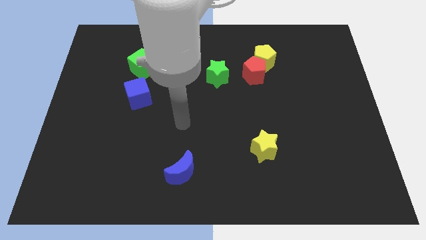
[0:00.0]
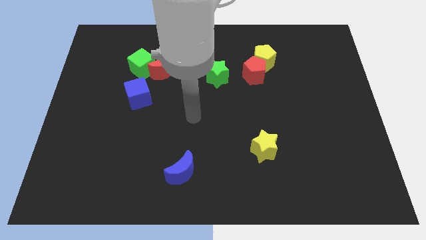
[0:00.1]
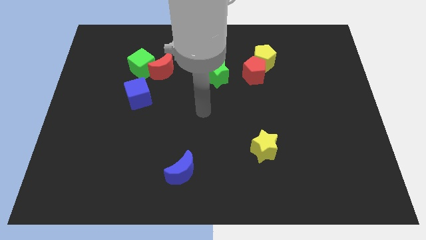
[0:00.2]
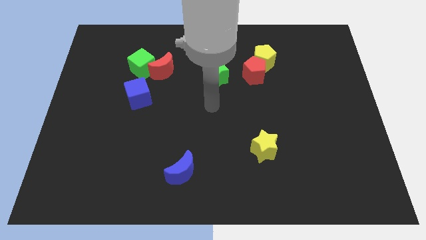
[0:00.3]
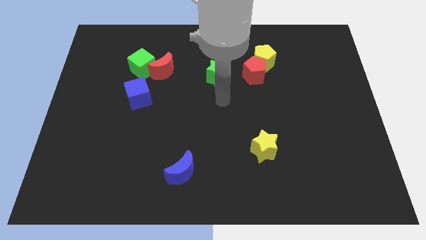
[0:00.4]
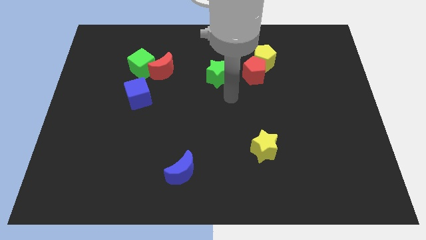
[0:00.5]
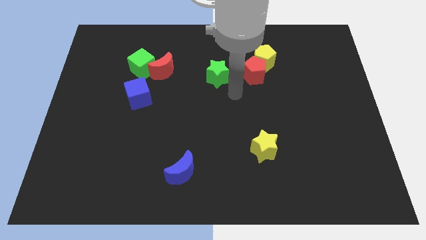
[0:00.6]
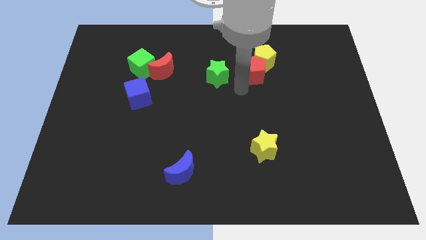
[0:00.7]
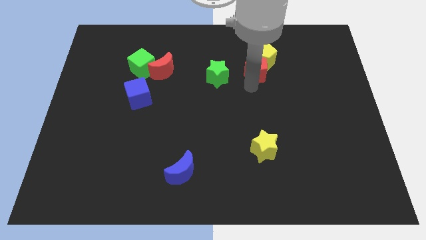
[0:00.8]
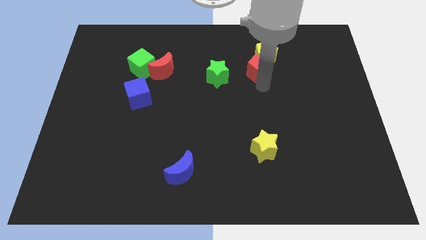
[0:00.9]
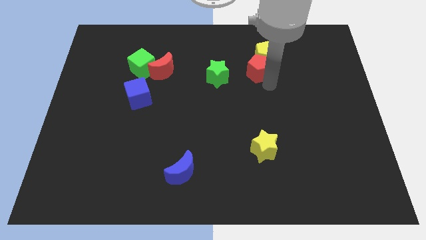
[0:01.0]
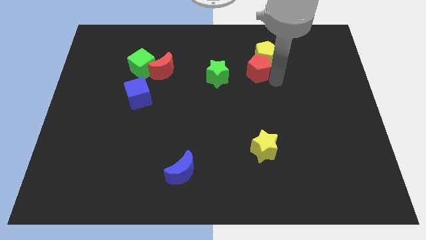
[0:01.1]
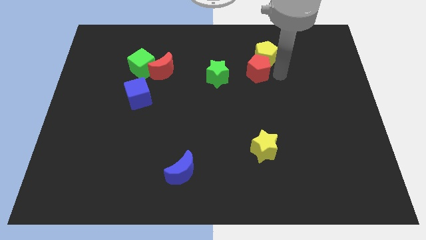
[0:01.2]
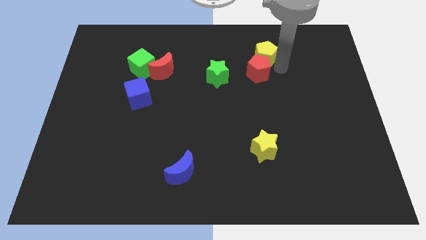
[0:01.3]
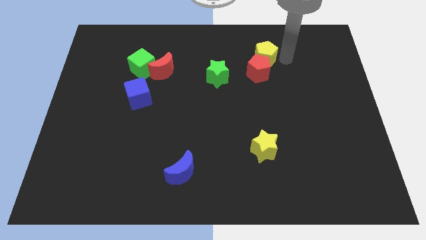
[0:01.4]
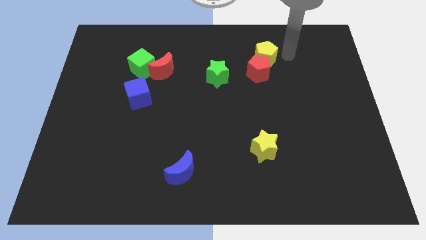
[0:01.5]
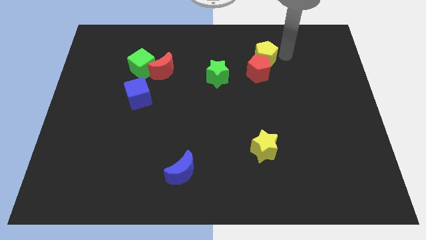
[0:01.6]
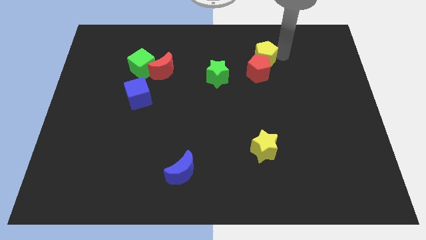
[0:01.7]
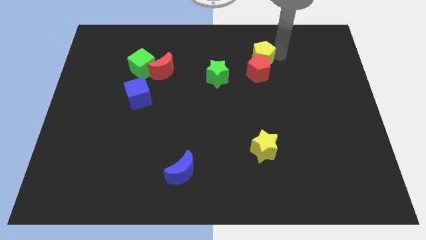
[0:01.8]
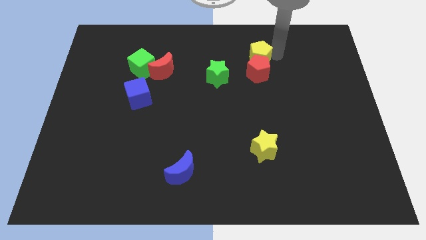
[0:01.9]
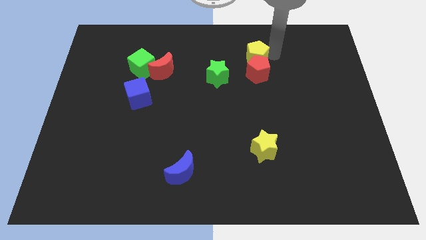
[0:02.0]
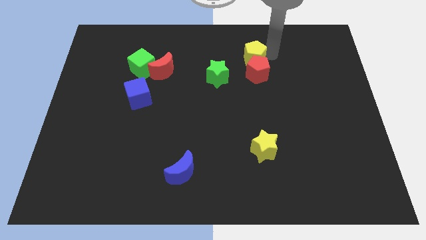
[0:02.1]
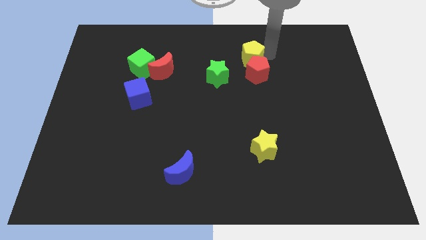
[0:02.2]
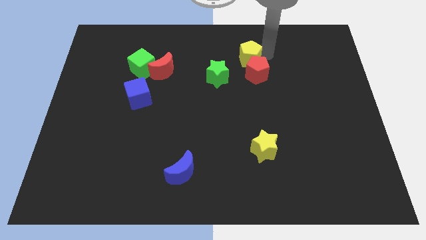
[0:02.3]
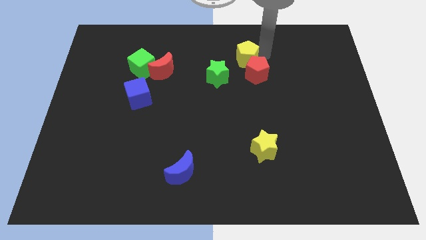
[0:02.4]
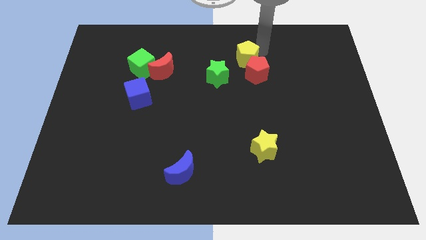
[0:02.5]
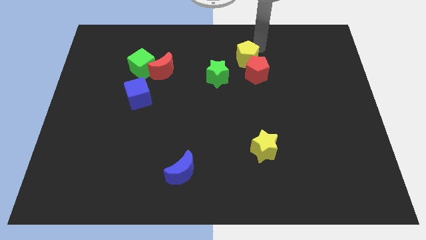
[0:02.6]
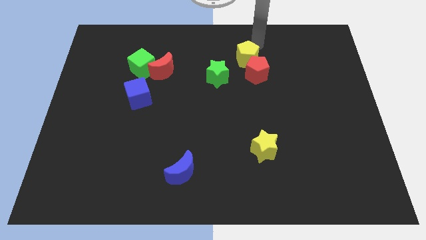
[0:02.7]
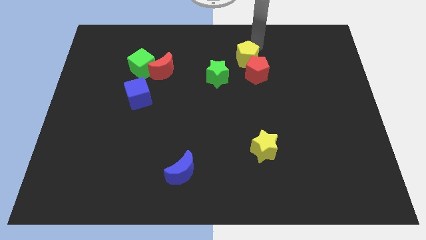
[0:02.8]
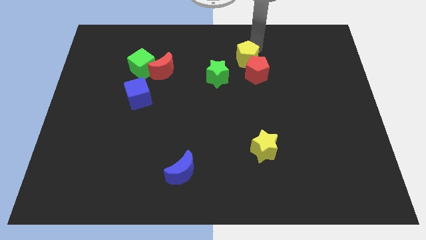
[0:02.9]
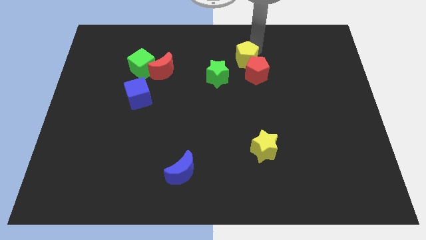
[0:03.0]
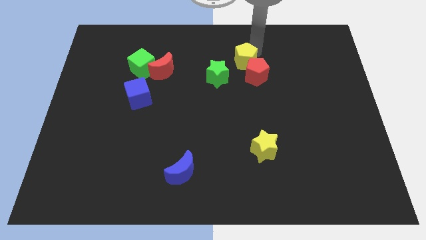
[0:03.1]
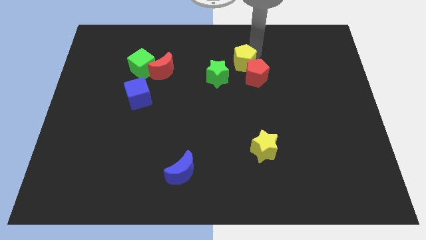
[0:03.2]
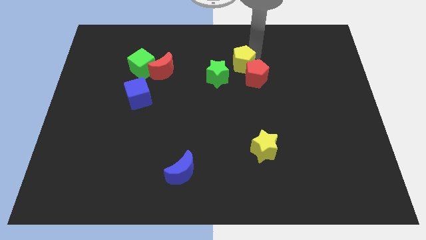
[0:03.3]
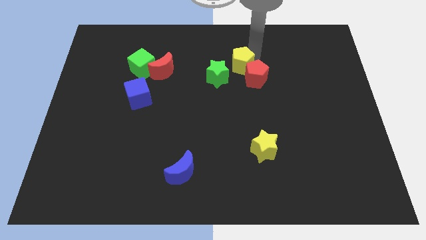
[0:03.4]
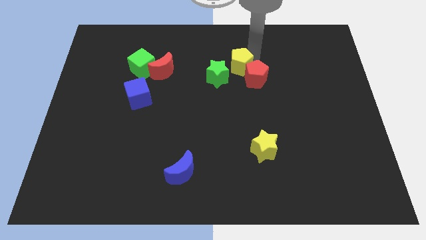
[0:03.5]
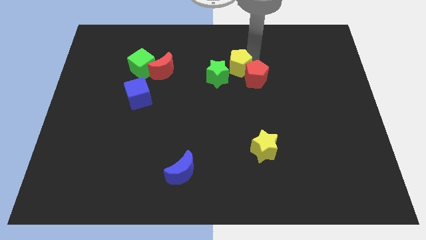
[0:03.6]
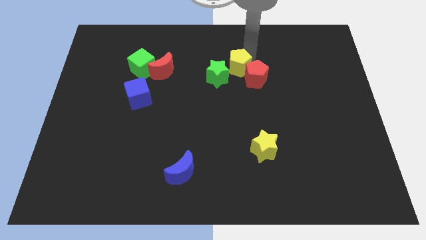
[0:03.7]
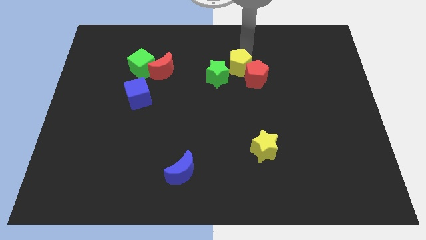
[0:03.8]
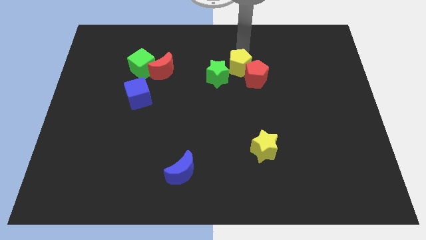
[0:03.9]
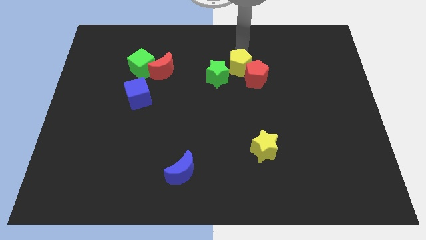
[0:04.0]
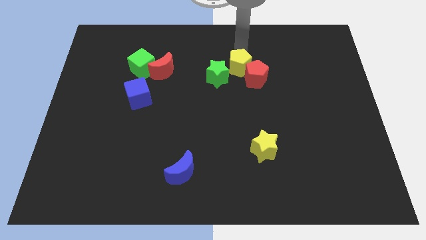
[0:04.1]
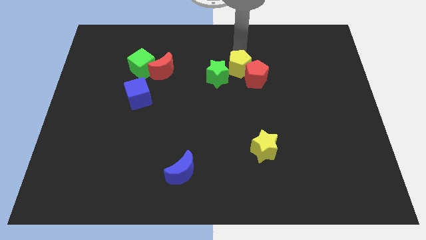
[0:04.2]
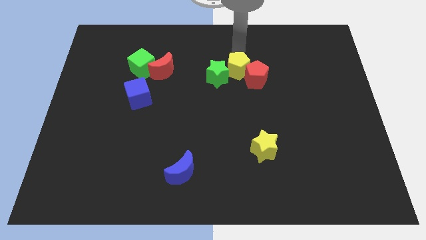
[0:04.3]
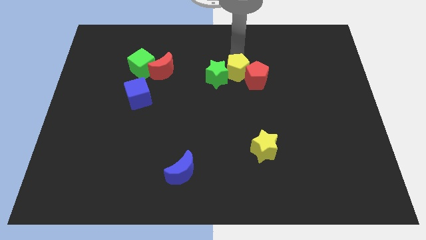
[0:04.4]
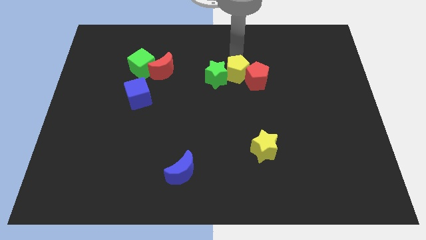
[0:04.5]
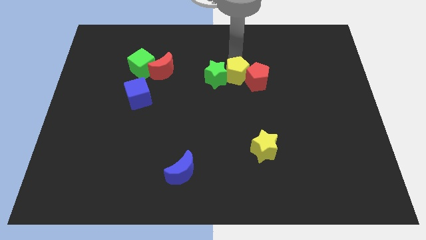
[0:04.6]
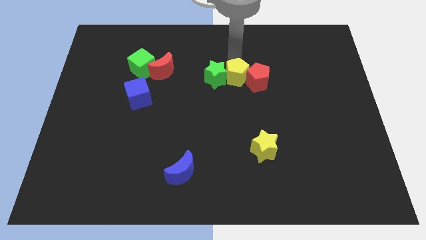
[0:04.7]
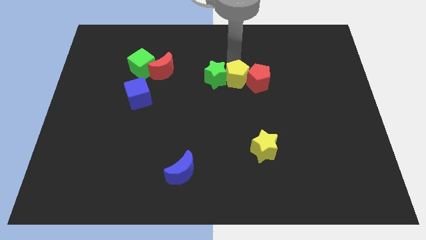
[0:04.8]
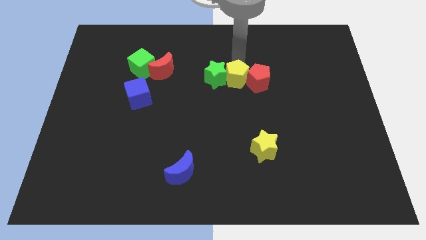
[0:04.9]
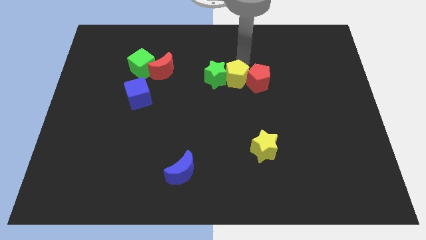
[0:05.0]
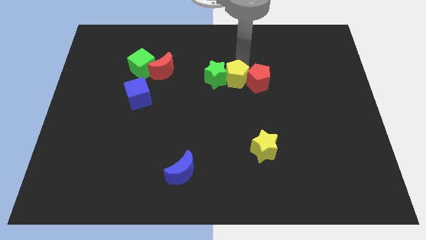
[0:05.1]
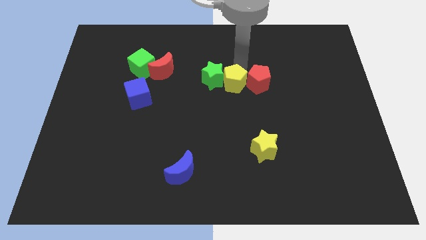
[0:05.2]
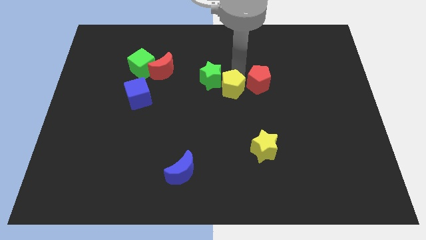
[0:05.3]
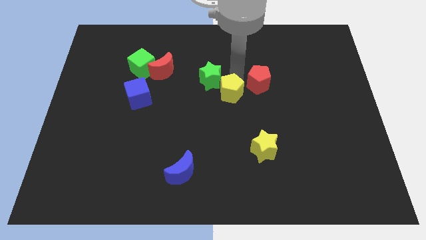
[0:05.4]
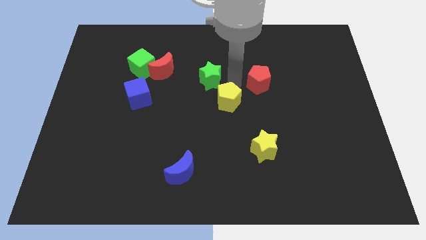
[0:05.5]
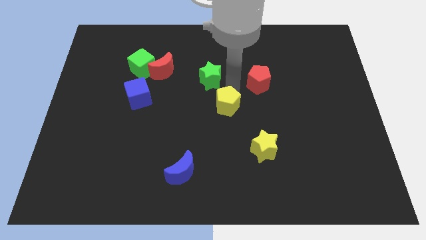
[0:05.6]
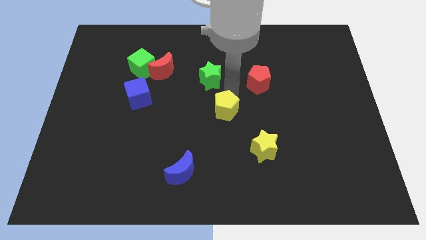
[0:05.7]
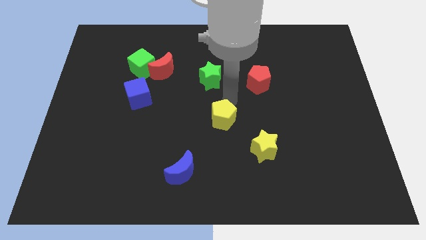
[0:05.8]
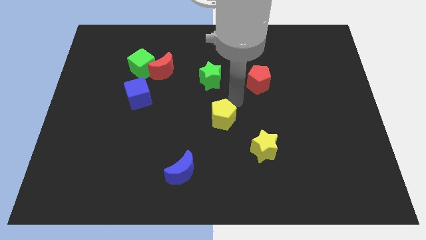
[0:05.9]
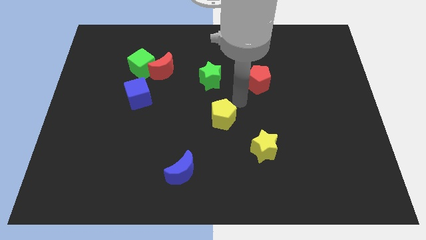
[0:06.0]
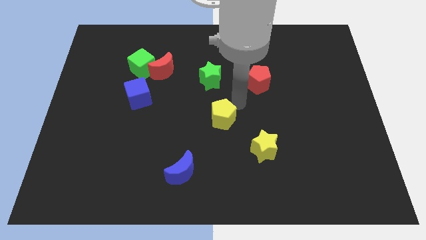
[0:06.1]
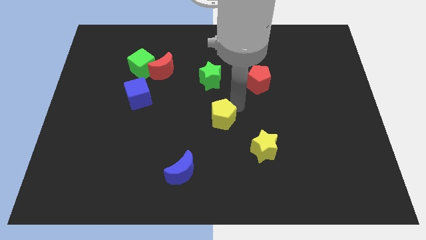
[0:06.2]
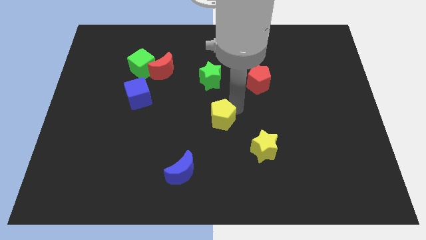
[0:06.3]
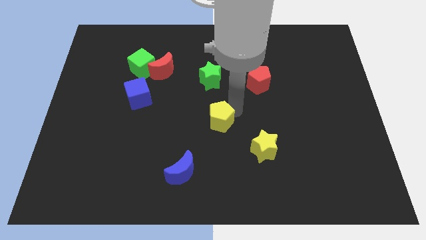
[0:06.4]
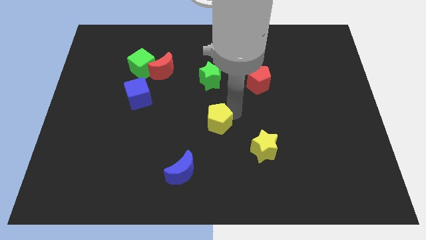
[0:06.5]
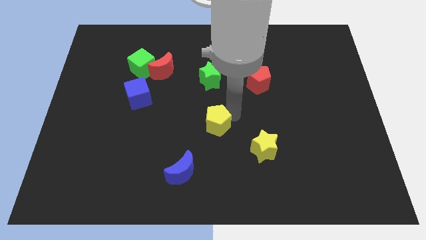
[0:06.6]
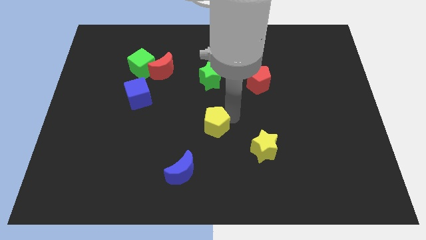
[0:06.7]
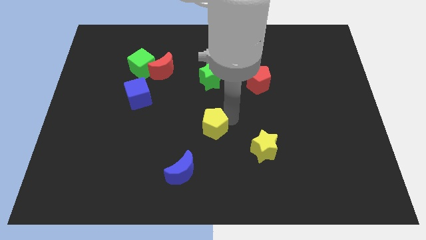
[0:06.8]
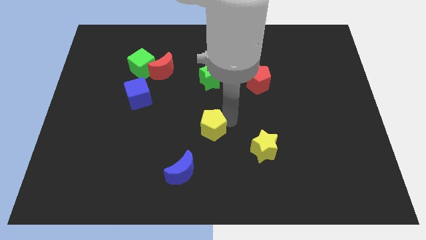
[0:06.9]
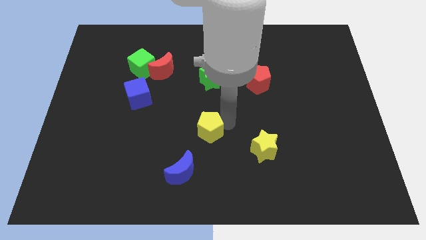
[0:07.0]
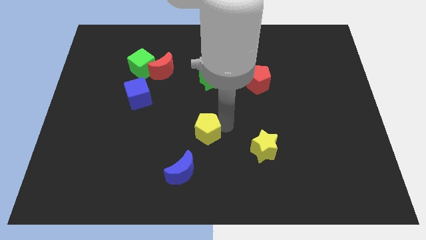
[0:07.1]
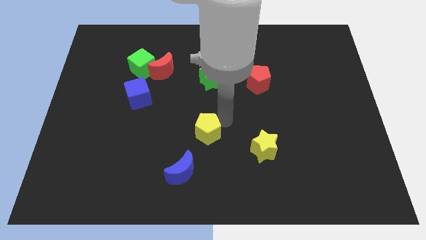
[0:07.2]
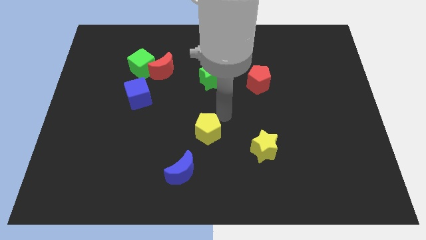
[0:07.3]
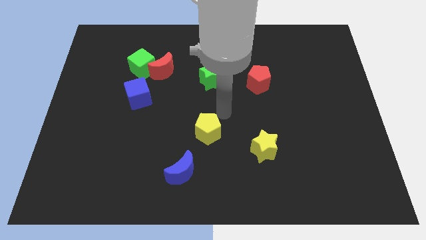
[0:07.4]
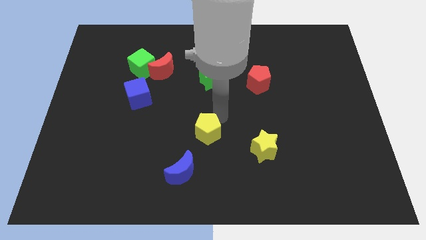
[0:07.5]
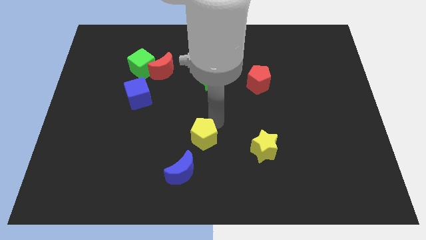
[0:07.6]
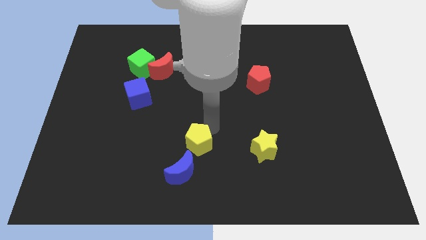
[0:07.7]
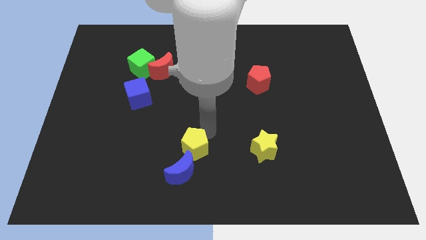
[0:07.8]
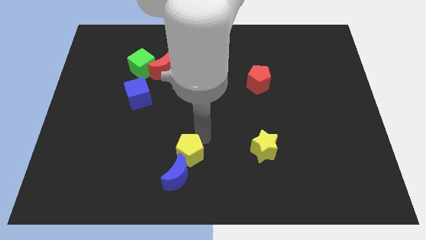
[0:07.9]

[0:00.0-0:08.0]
move the yellow pentagon close to the blue moon
